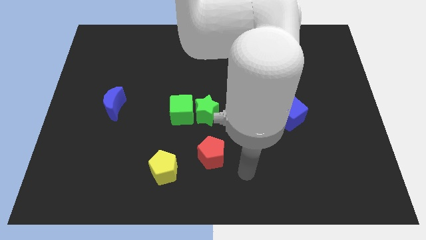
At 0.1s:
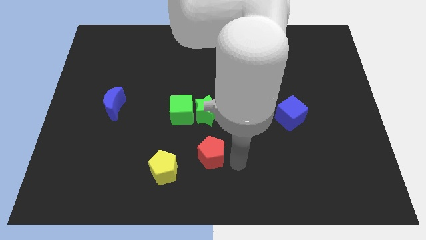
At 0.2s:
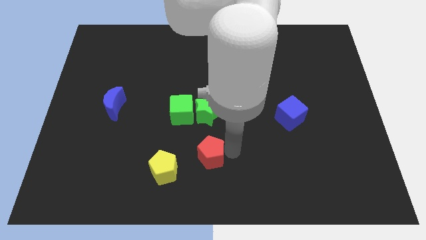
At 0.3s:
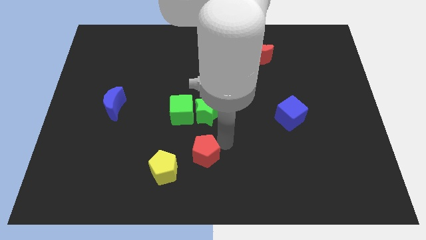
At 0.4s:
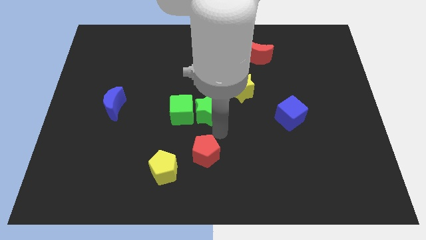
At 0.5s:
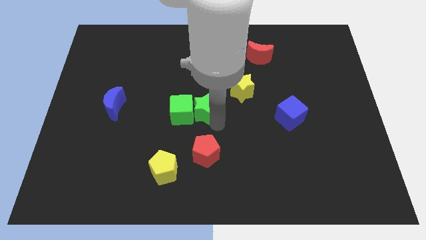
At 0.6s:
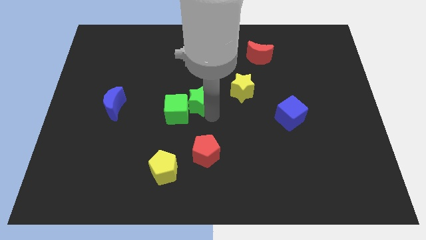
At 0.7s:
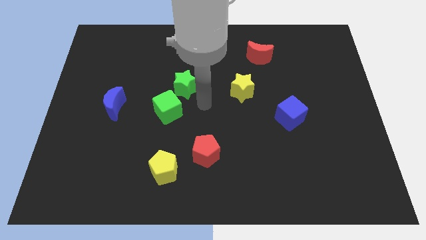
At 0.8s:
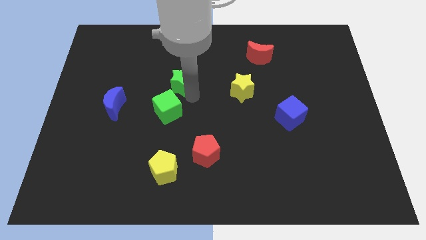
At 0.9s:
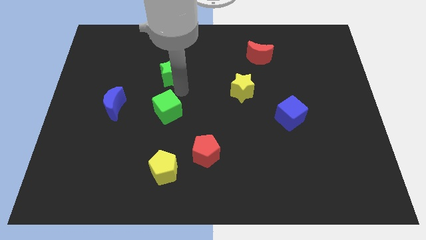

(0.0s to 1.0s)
separate the green cube from the green star

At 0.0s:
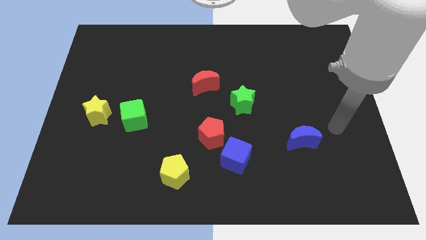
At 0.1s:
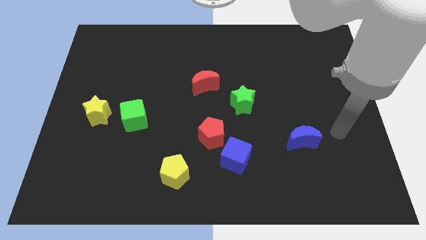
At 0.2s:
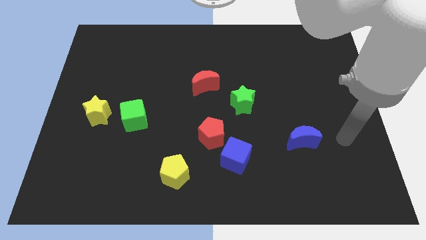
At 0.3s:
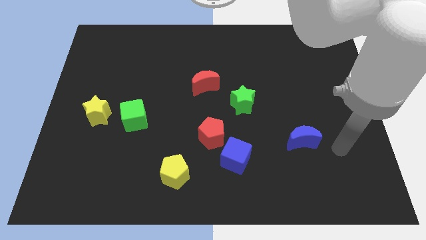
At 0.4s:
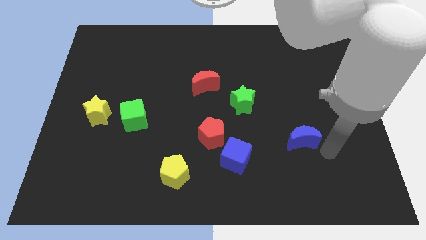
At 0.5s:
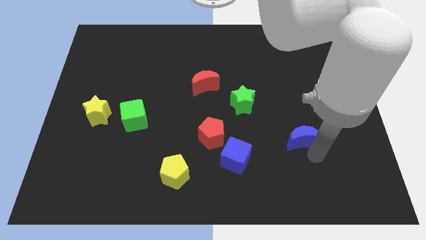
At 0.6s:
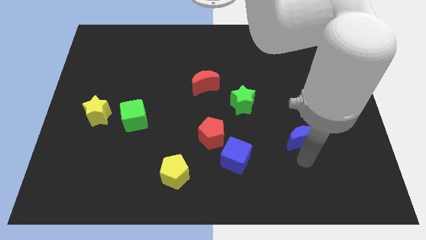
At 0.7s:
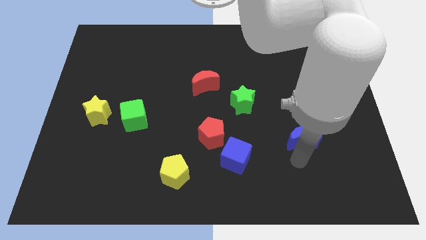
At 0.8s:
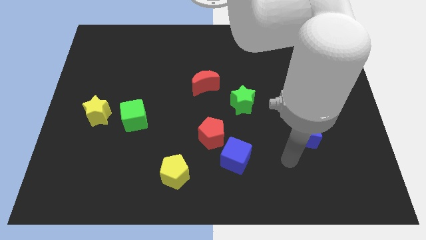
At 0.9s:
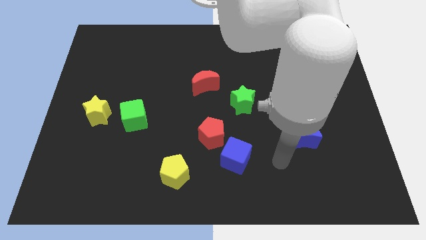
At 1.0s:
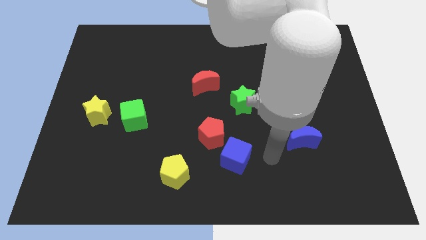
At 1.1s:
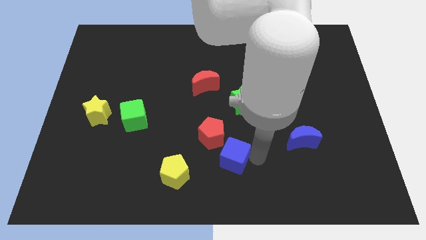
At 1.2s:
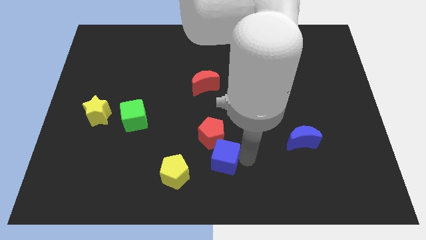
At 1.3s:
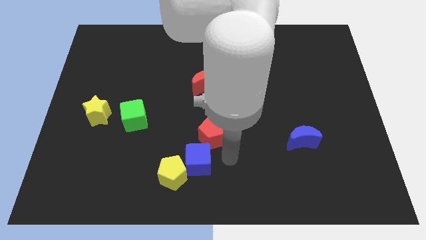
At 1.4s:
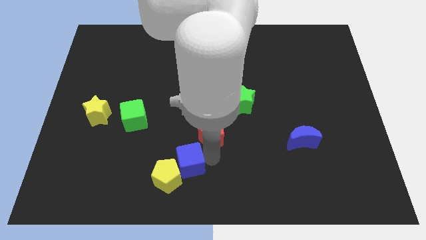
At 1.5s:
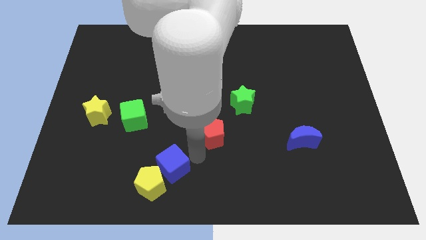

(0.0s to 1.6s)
move the red pentagon away from the blue cube

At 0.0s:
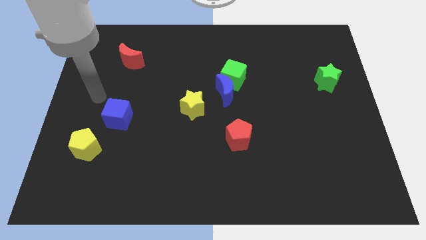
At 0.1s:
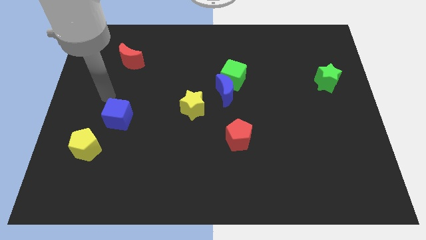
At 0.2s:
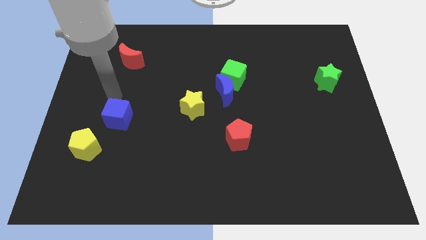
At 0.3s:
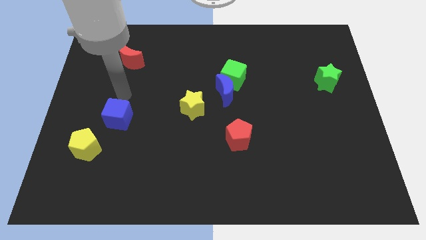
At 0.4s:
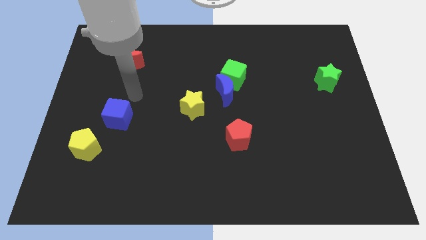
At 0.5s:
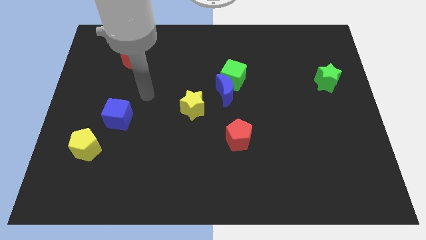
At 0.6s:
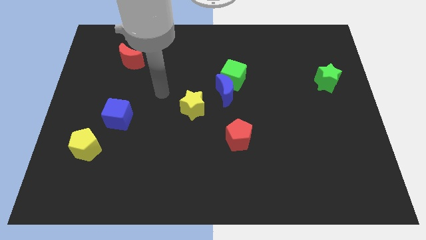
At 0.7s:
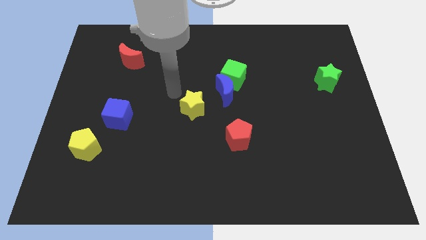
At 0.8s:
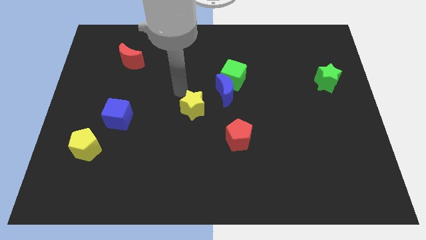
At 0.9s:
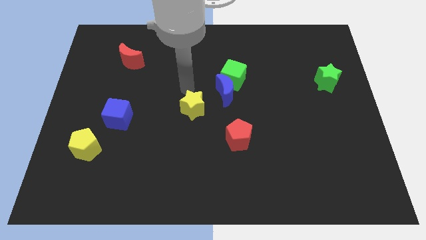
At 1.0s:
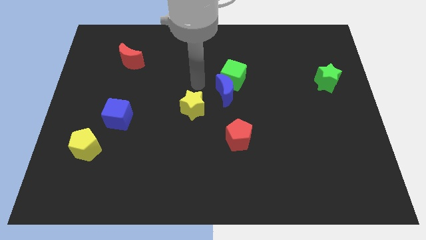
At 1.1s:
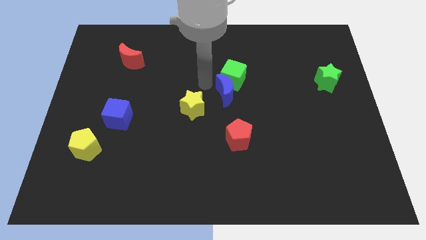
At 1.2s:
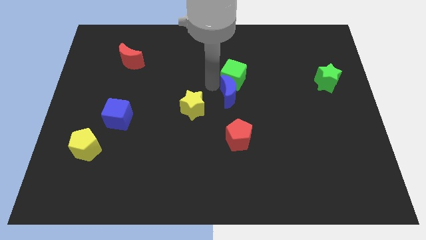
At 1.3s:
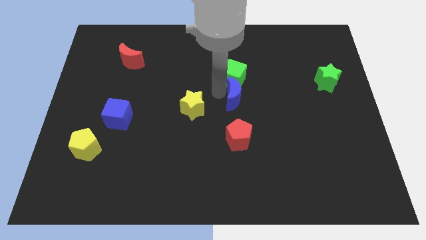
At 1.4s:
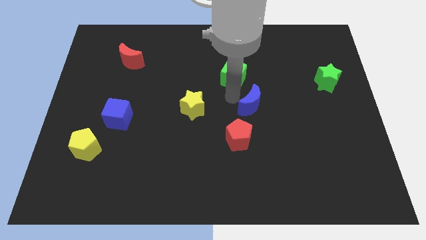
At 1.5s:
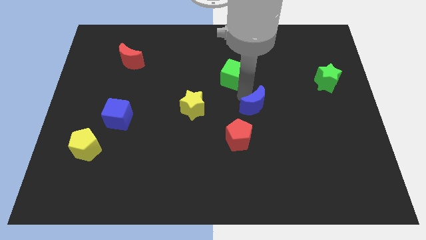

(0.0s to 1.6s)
move the green cube away from the blue moon

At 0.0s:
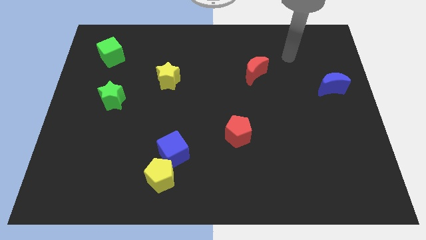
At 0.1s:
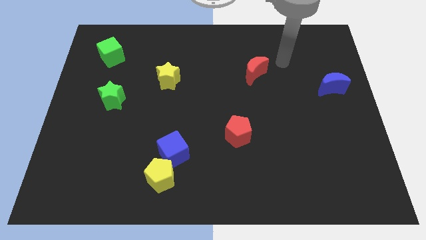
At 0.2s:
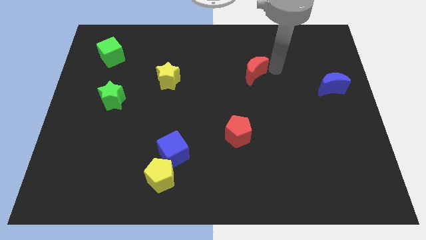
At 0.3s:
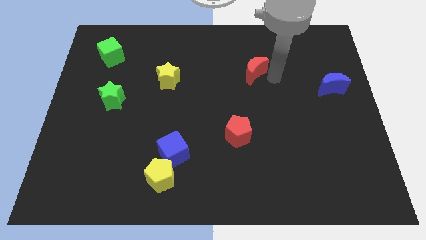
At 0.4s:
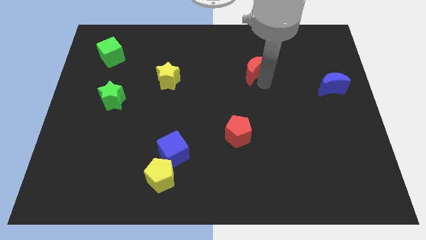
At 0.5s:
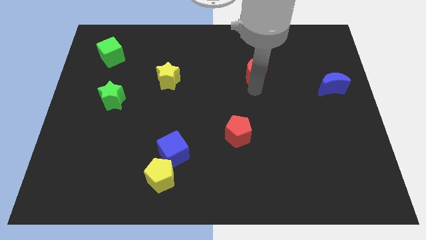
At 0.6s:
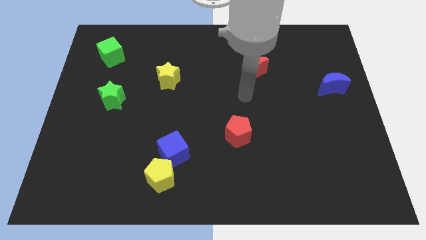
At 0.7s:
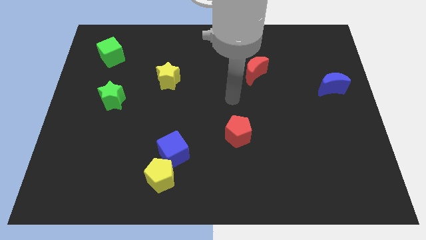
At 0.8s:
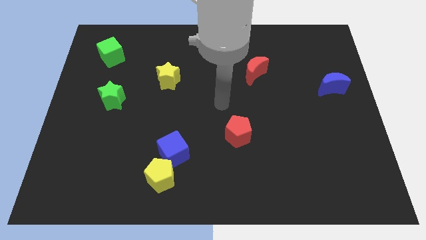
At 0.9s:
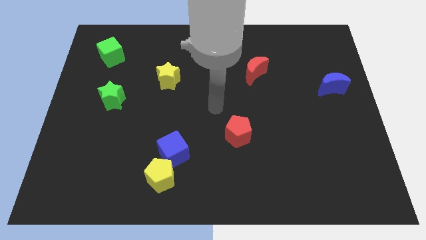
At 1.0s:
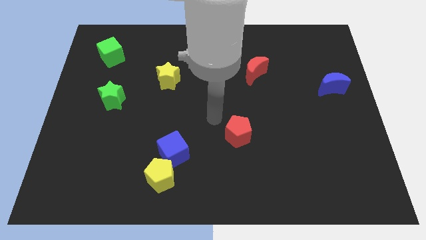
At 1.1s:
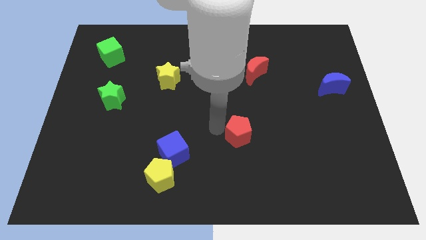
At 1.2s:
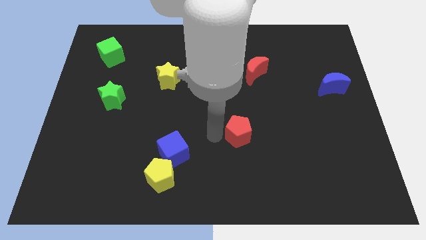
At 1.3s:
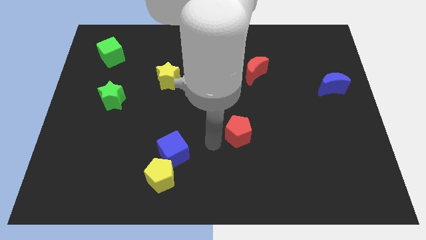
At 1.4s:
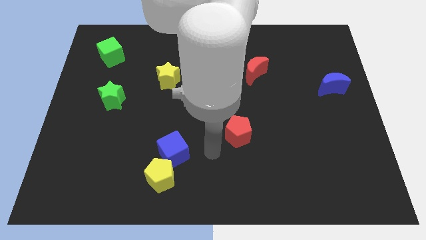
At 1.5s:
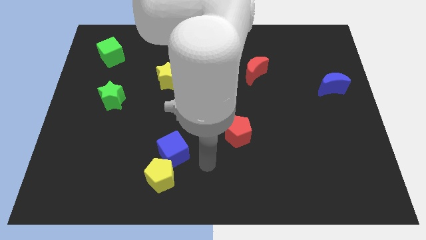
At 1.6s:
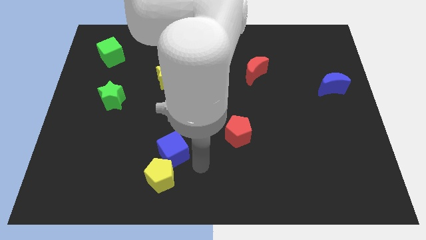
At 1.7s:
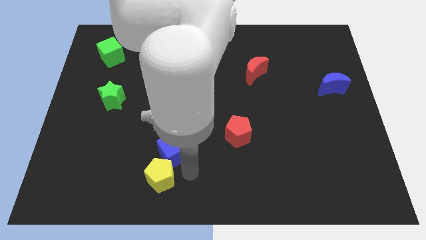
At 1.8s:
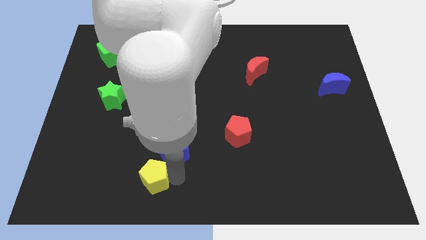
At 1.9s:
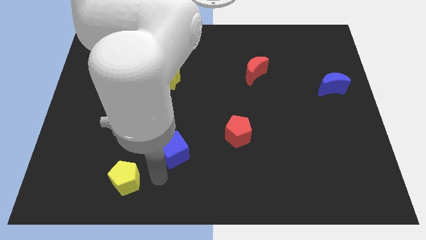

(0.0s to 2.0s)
pull the blue cube apart from the yellow pentagon

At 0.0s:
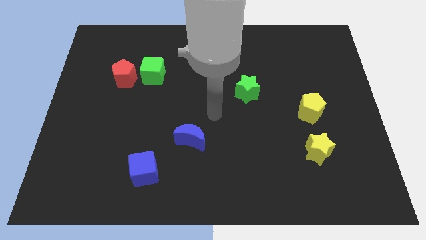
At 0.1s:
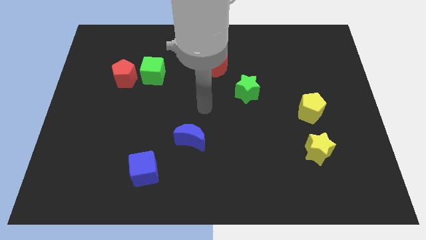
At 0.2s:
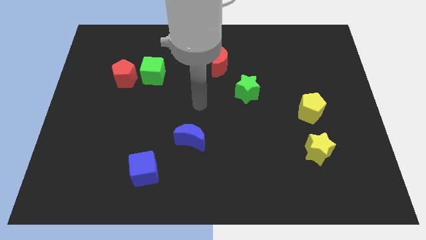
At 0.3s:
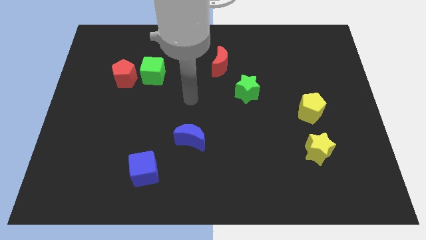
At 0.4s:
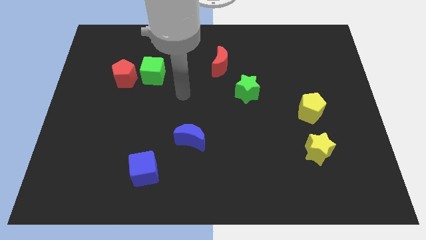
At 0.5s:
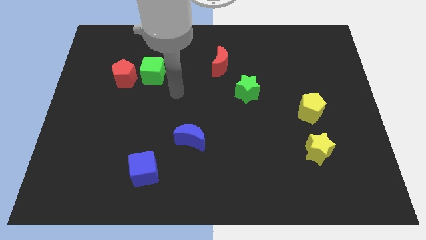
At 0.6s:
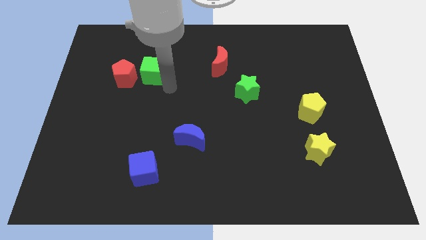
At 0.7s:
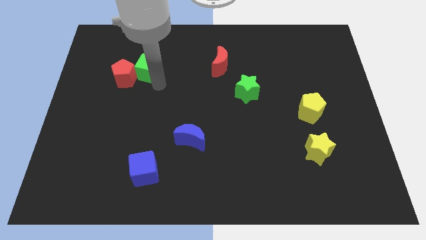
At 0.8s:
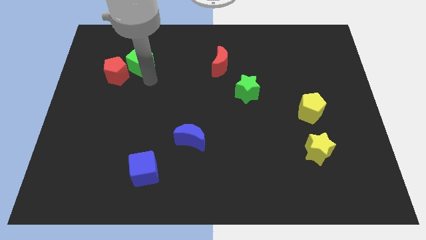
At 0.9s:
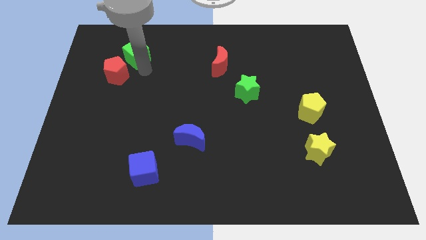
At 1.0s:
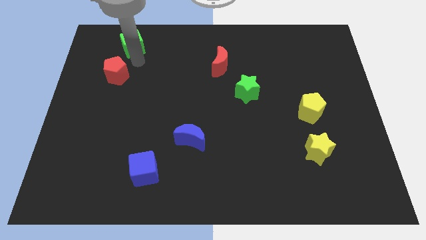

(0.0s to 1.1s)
move the red pentagon away from the green cube

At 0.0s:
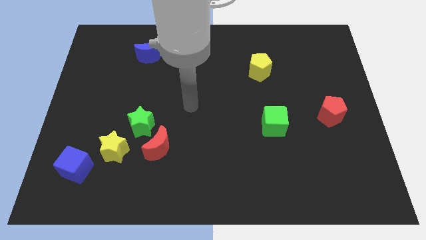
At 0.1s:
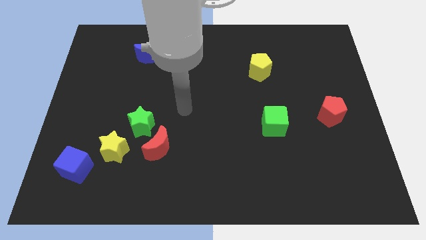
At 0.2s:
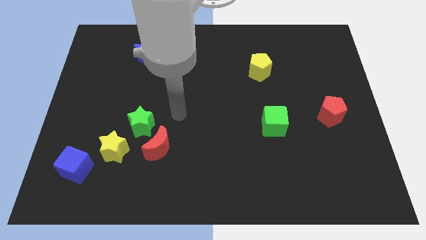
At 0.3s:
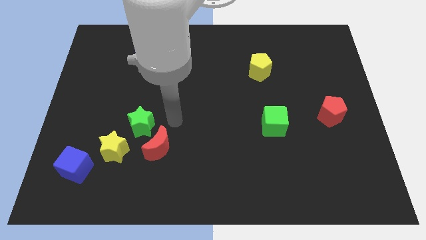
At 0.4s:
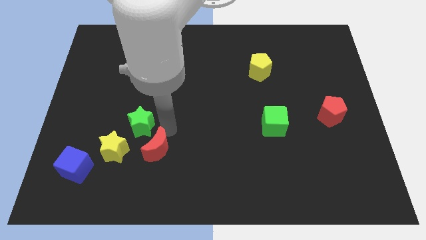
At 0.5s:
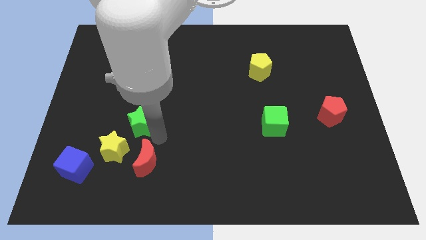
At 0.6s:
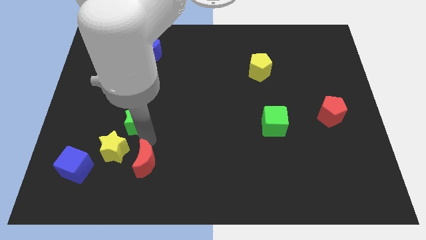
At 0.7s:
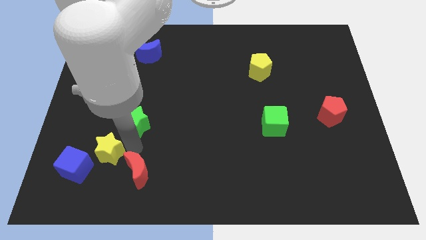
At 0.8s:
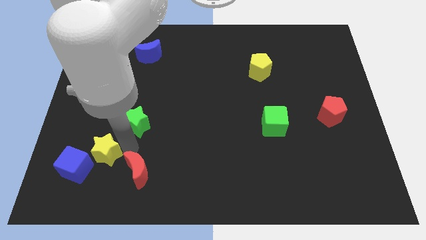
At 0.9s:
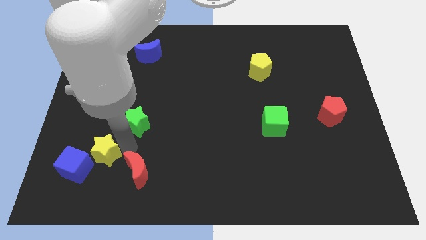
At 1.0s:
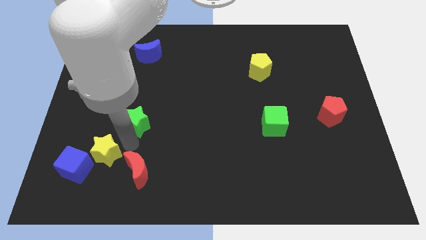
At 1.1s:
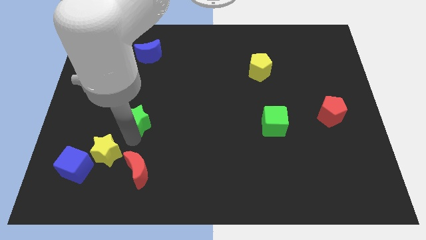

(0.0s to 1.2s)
pull the green star apart from the red moon and yellow star

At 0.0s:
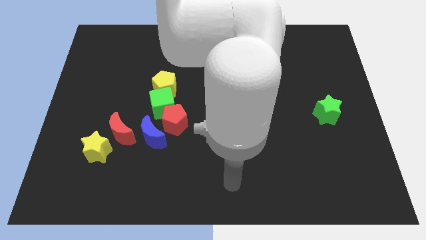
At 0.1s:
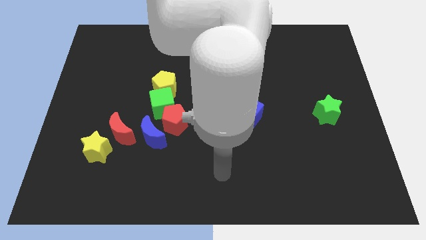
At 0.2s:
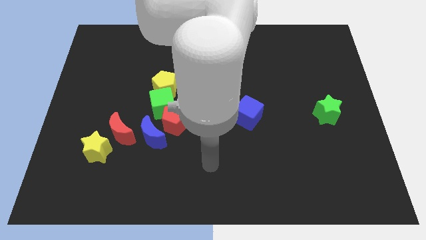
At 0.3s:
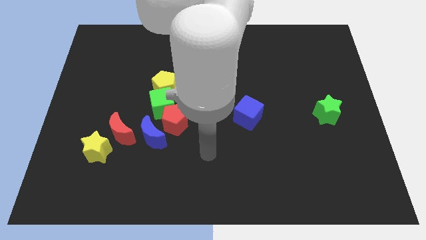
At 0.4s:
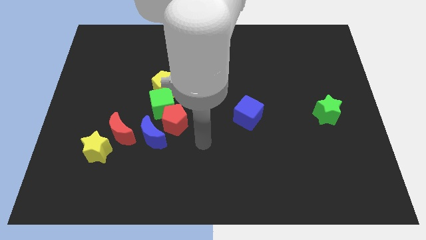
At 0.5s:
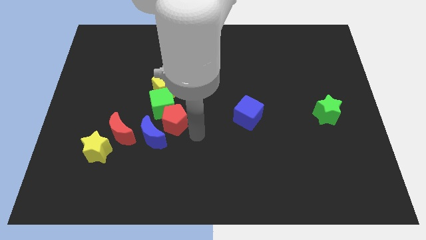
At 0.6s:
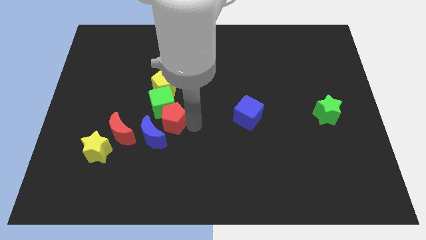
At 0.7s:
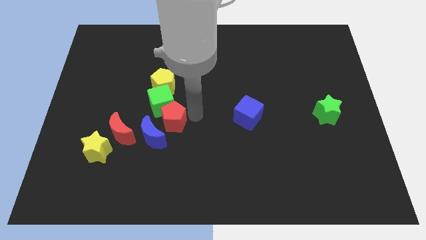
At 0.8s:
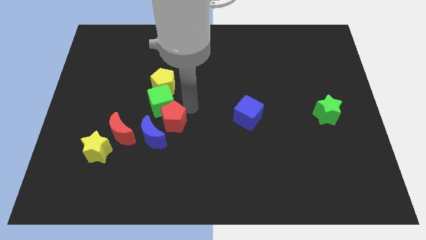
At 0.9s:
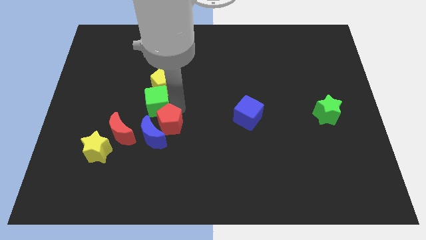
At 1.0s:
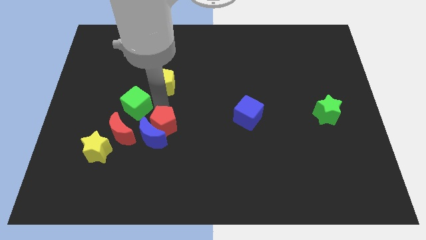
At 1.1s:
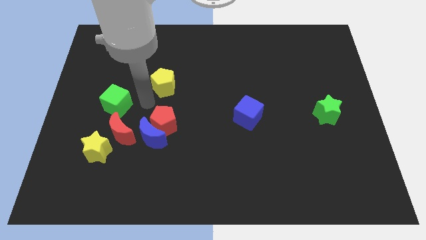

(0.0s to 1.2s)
move the yellow pentagon away from the green cube
